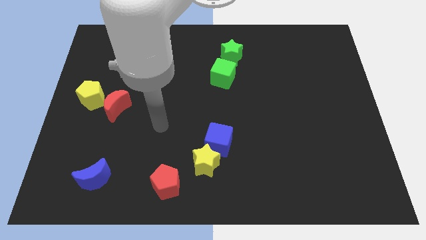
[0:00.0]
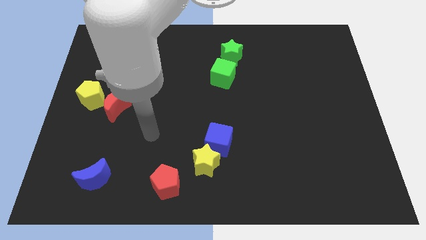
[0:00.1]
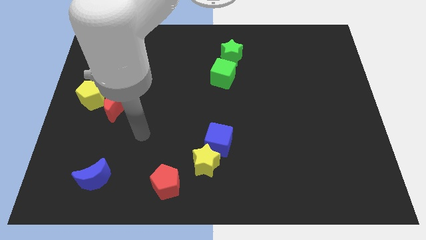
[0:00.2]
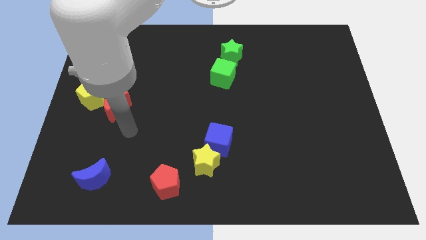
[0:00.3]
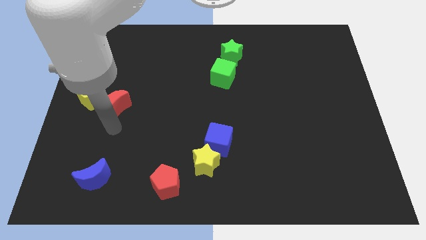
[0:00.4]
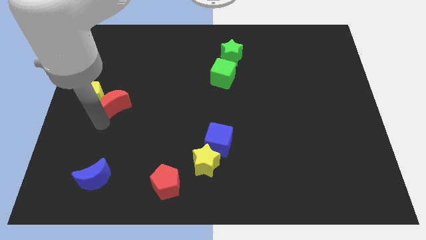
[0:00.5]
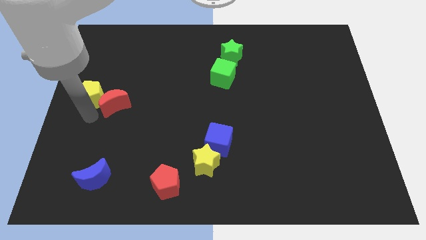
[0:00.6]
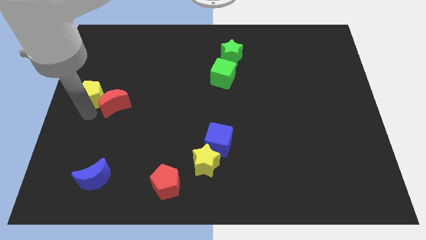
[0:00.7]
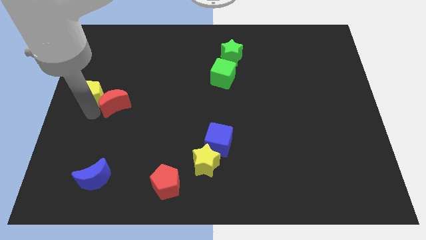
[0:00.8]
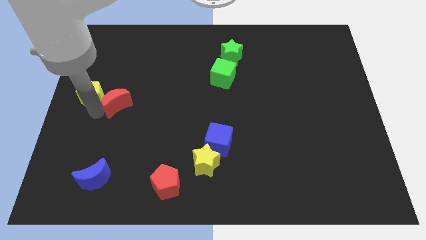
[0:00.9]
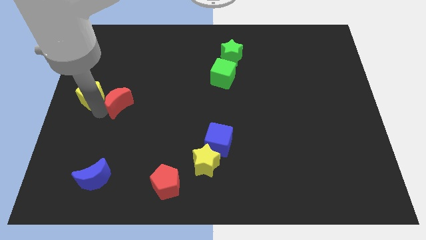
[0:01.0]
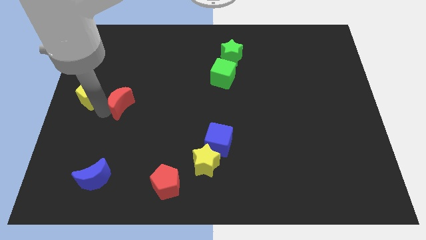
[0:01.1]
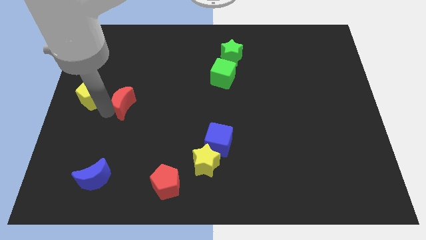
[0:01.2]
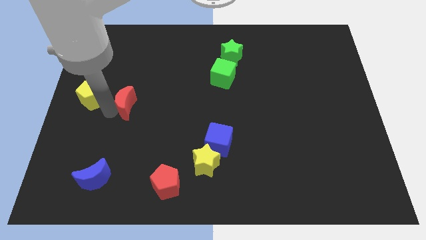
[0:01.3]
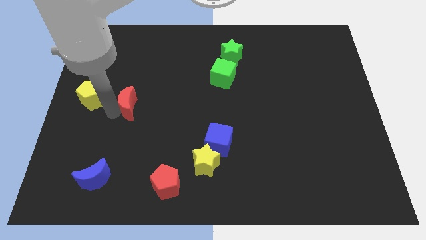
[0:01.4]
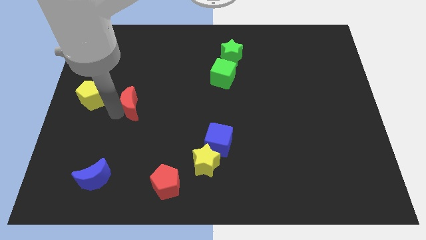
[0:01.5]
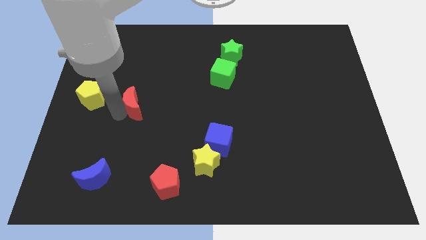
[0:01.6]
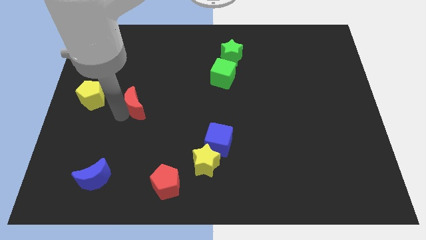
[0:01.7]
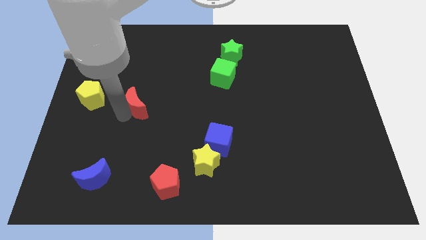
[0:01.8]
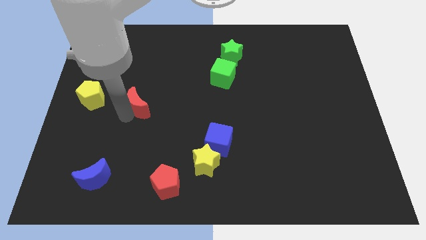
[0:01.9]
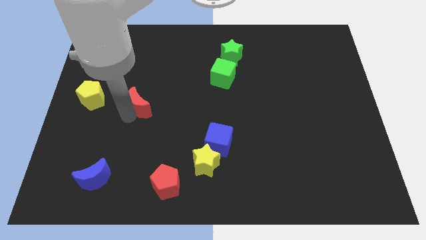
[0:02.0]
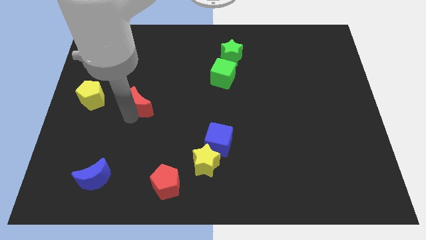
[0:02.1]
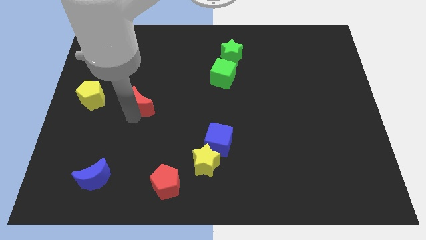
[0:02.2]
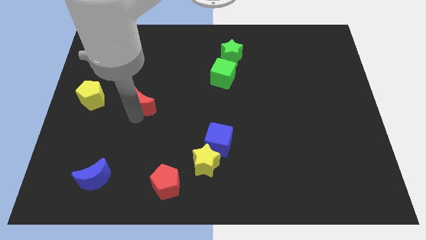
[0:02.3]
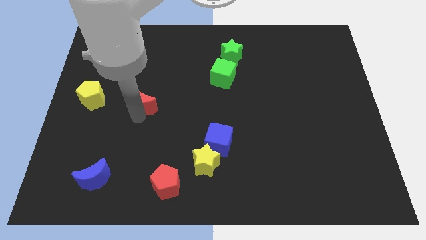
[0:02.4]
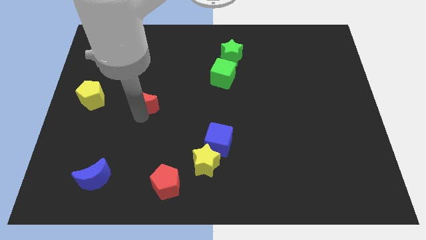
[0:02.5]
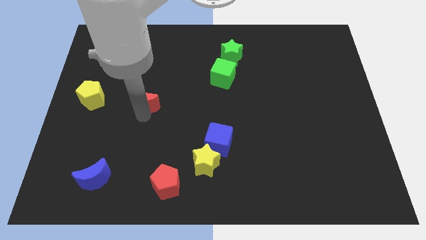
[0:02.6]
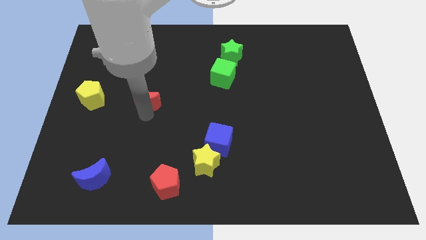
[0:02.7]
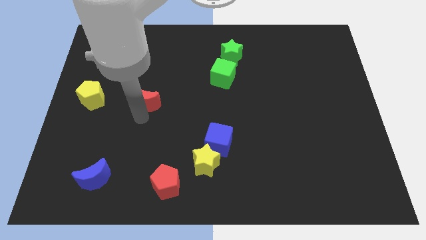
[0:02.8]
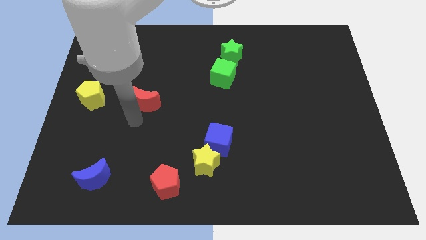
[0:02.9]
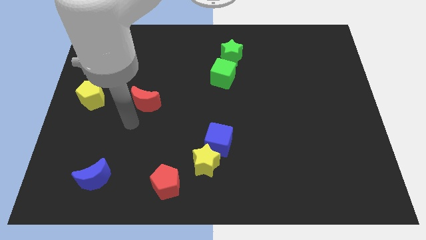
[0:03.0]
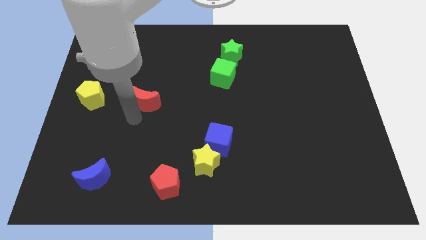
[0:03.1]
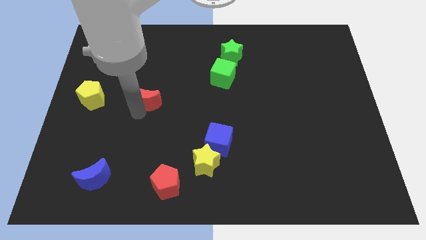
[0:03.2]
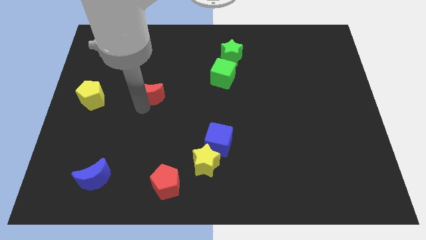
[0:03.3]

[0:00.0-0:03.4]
slightly move the red moon up and right diagonally

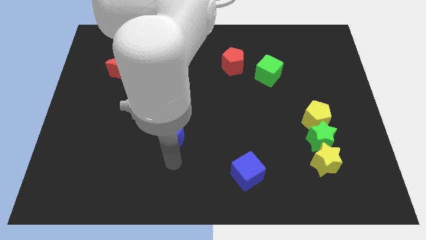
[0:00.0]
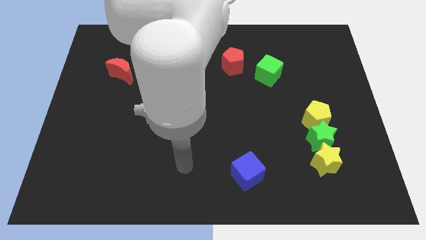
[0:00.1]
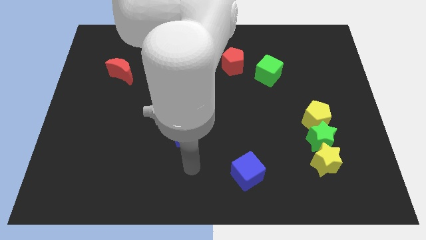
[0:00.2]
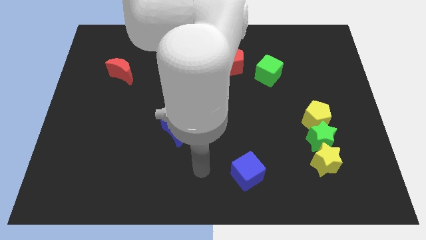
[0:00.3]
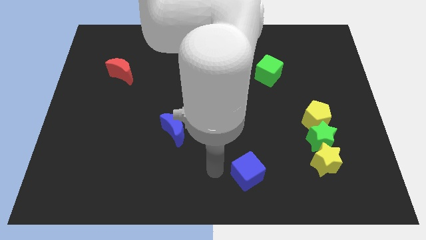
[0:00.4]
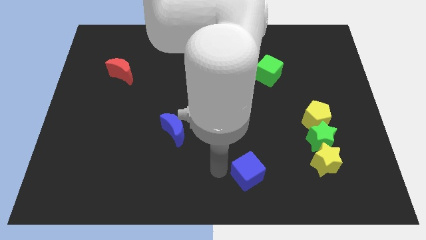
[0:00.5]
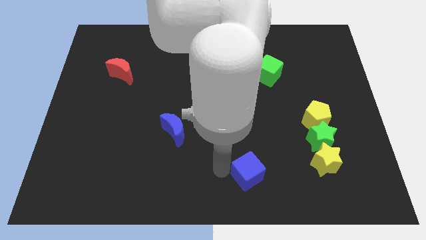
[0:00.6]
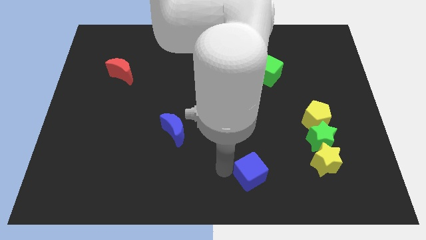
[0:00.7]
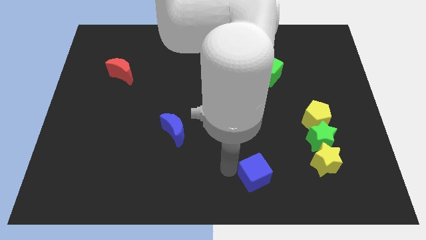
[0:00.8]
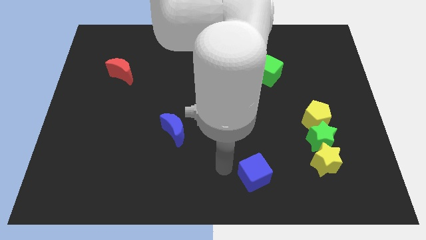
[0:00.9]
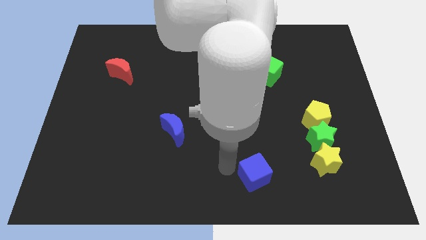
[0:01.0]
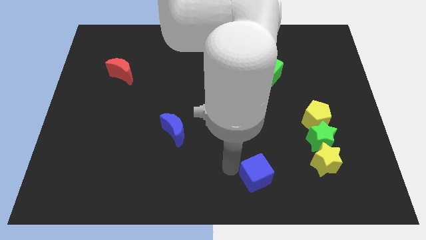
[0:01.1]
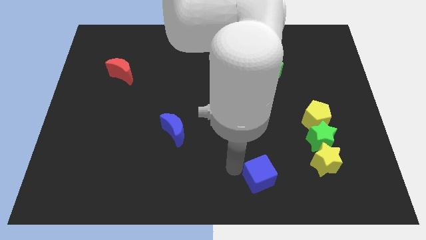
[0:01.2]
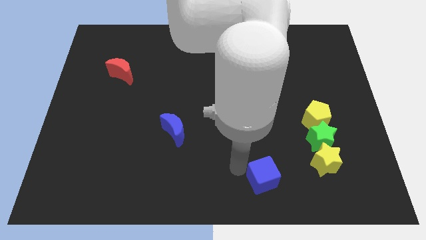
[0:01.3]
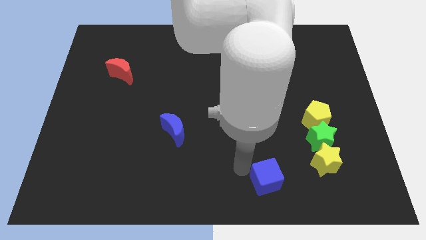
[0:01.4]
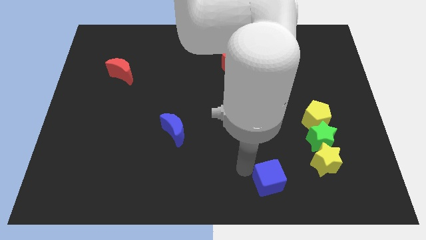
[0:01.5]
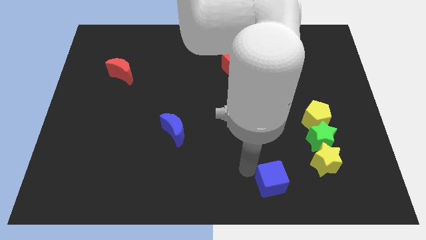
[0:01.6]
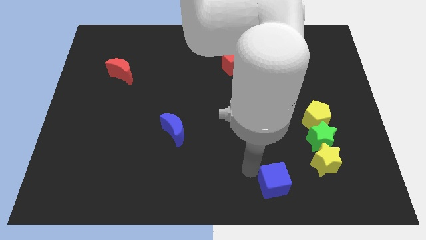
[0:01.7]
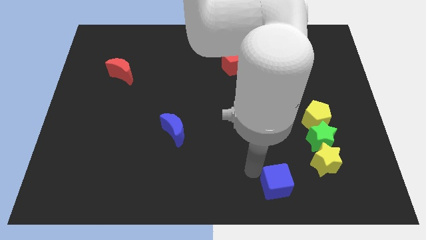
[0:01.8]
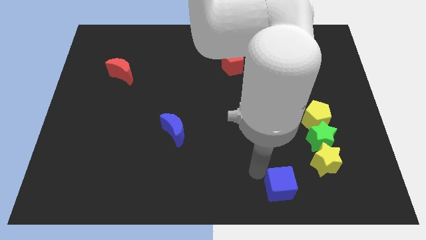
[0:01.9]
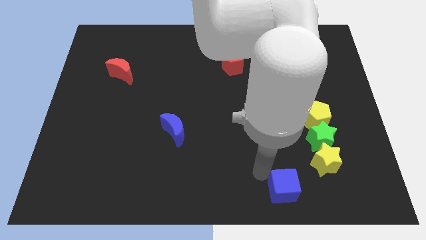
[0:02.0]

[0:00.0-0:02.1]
push the blue cube a little right

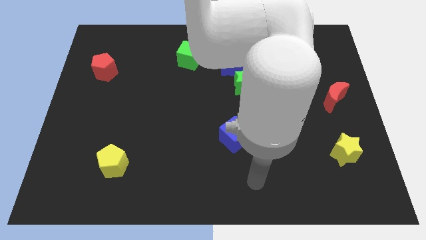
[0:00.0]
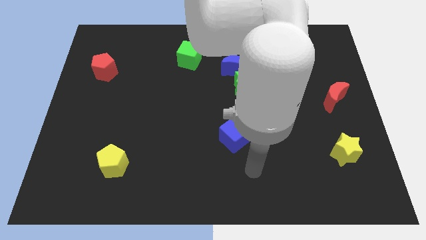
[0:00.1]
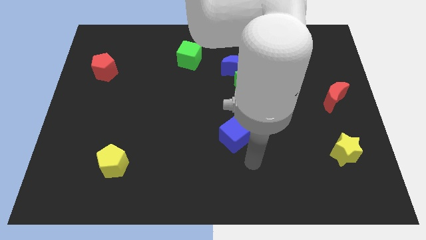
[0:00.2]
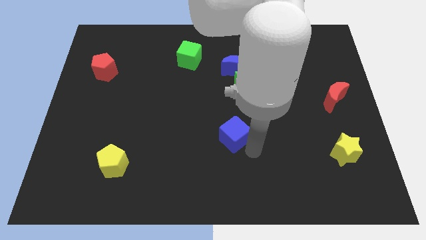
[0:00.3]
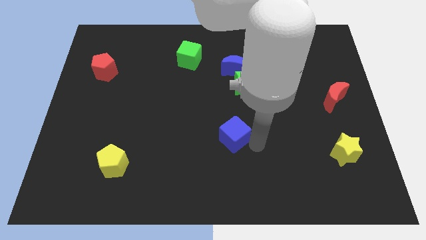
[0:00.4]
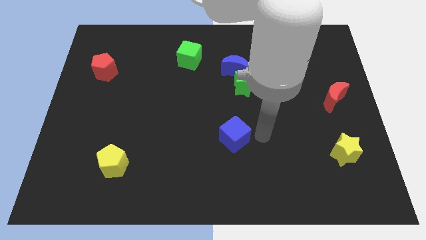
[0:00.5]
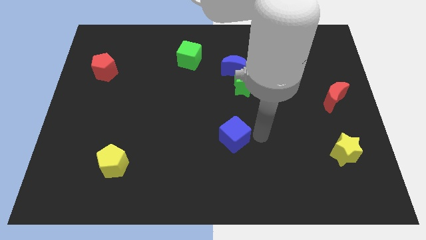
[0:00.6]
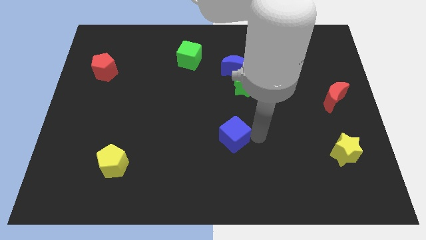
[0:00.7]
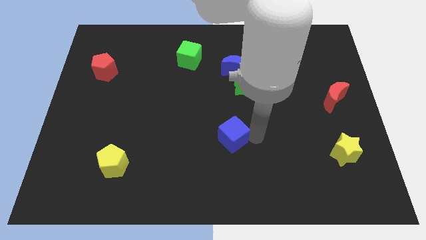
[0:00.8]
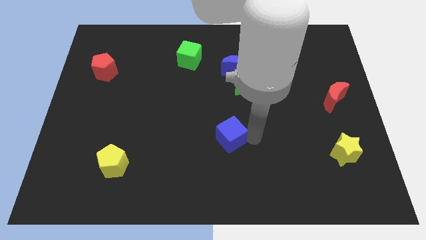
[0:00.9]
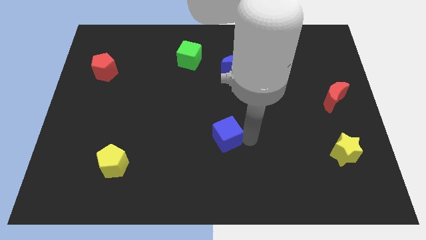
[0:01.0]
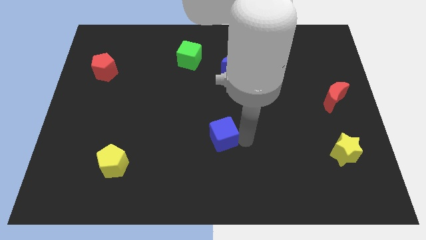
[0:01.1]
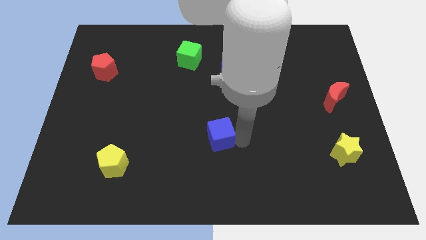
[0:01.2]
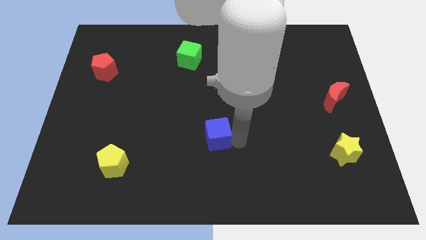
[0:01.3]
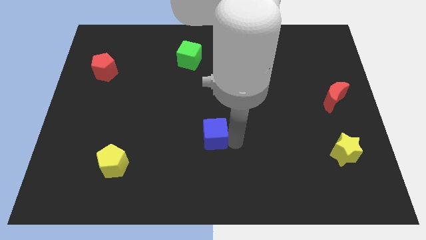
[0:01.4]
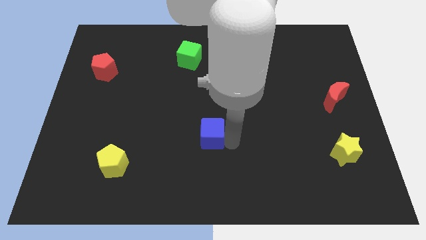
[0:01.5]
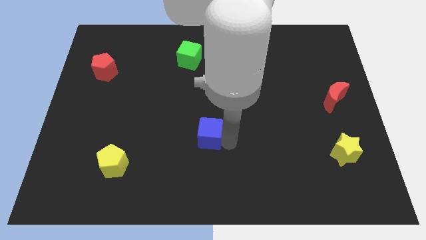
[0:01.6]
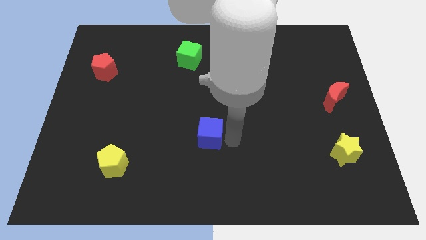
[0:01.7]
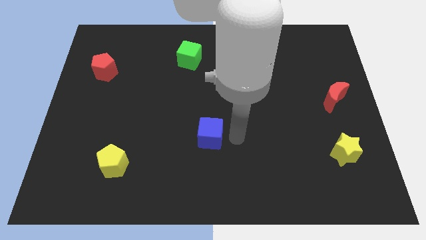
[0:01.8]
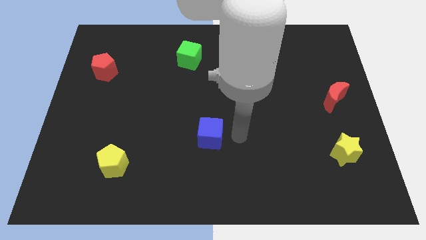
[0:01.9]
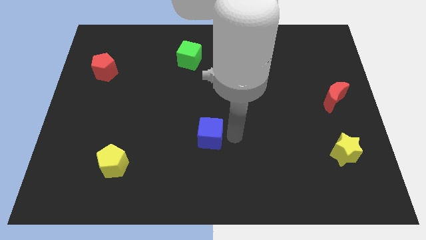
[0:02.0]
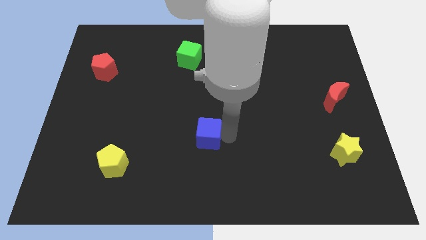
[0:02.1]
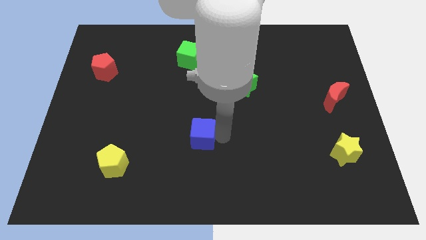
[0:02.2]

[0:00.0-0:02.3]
slide the blue cube to the left a little

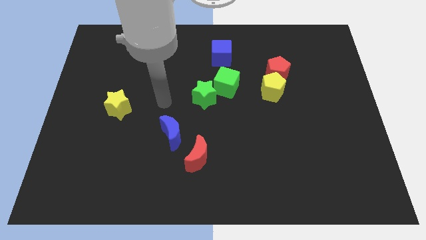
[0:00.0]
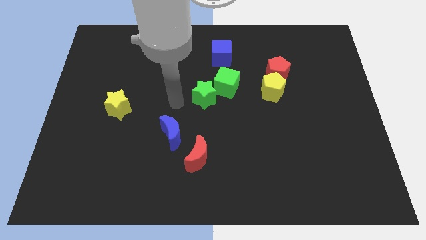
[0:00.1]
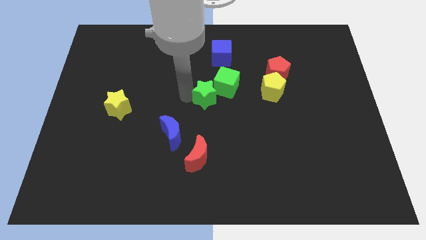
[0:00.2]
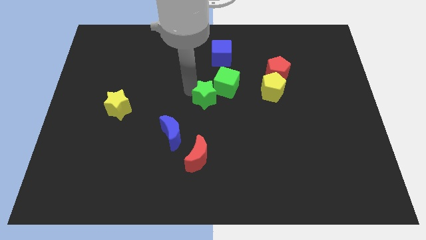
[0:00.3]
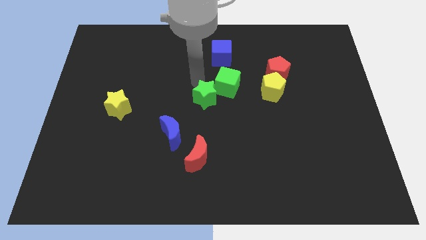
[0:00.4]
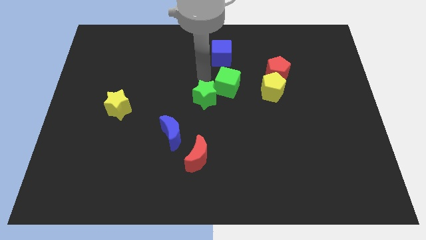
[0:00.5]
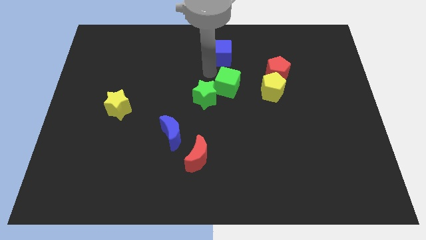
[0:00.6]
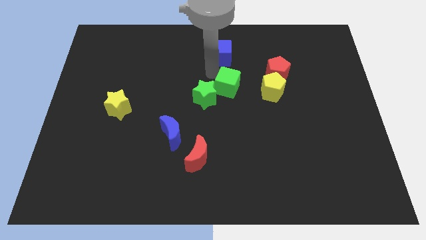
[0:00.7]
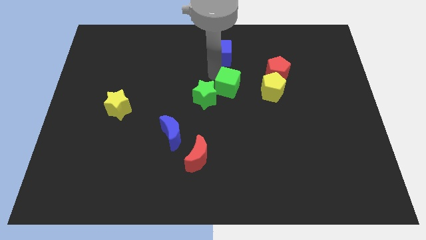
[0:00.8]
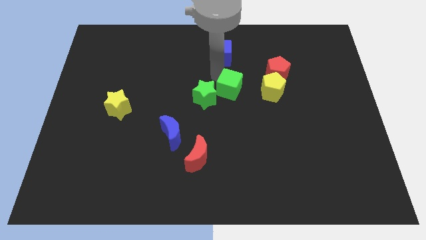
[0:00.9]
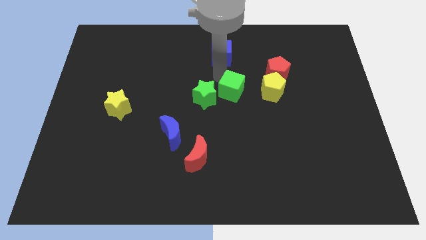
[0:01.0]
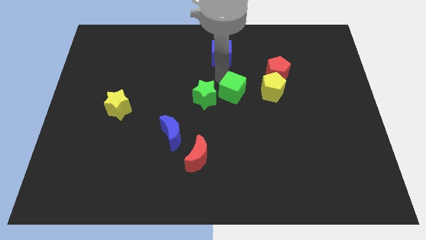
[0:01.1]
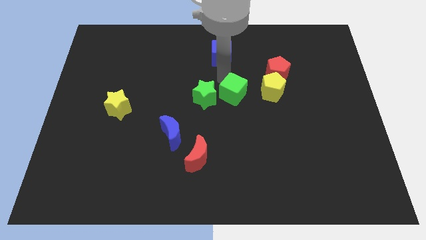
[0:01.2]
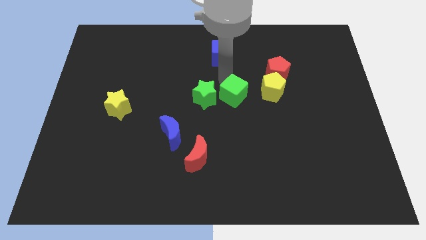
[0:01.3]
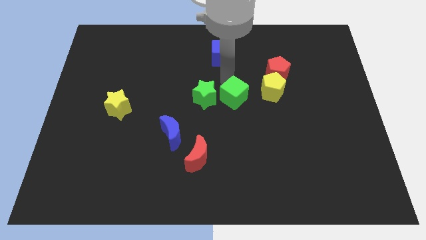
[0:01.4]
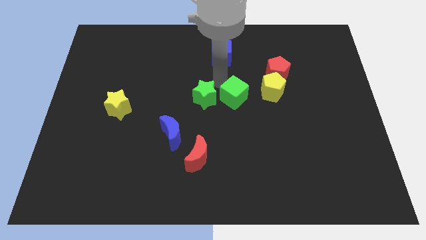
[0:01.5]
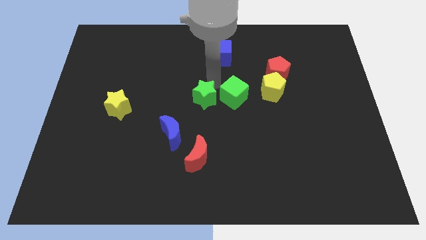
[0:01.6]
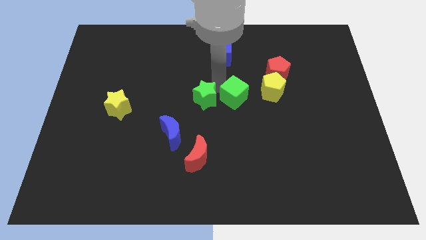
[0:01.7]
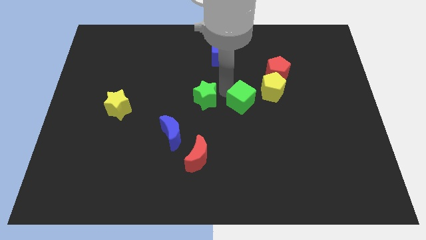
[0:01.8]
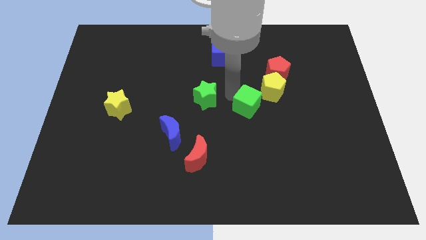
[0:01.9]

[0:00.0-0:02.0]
slightly push the green cube downwards and then to the right
